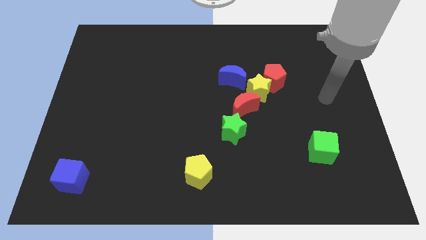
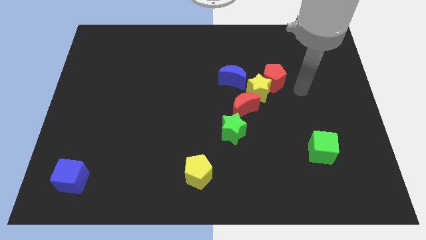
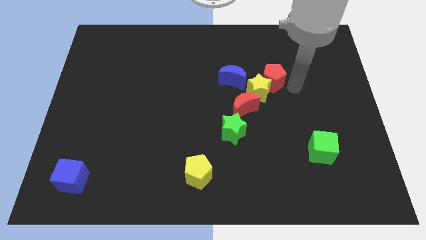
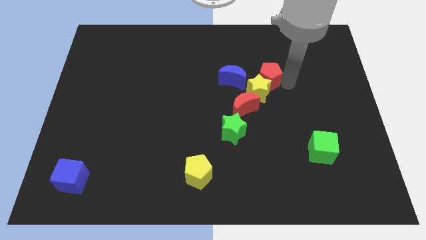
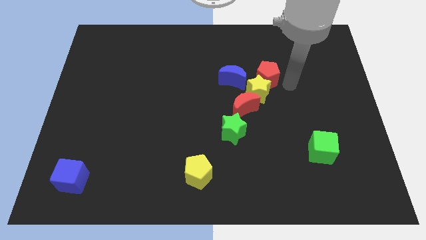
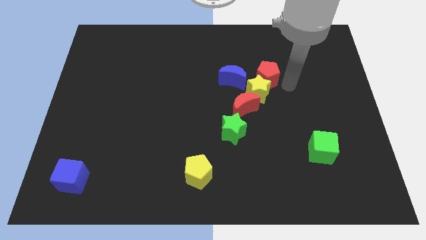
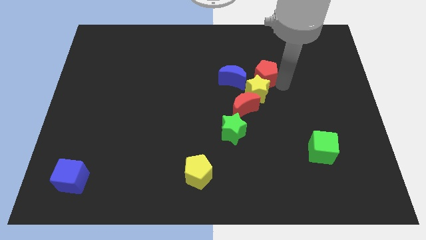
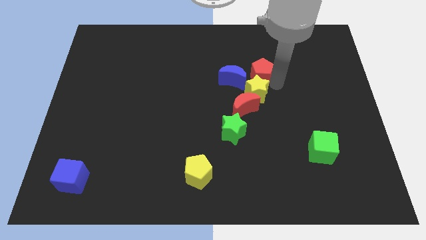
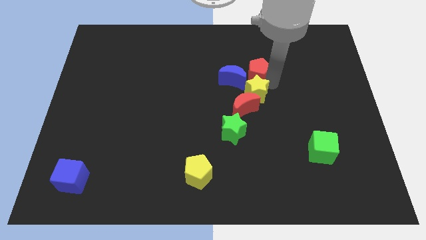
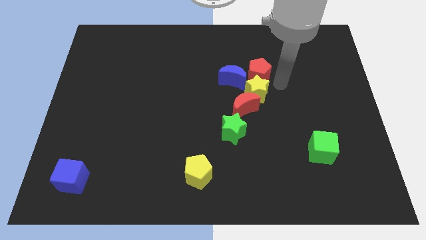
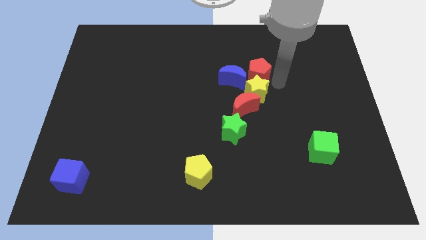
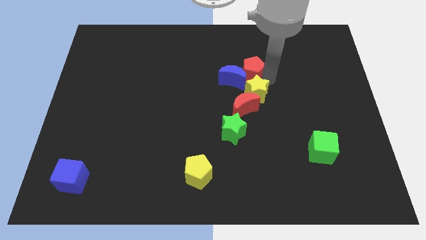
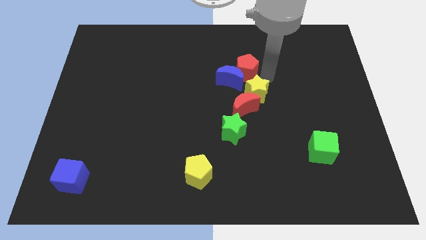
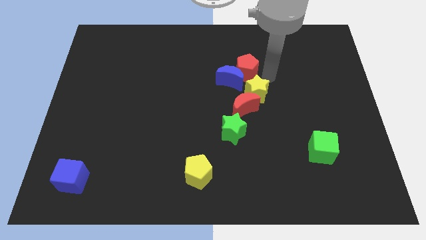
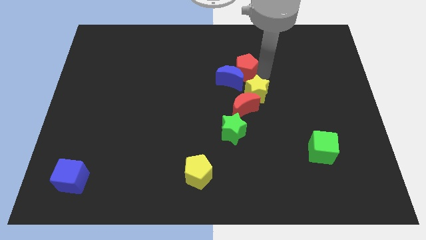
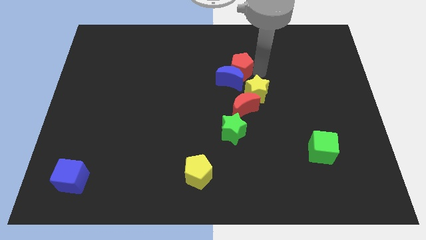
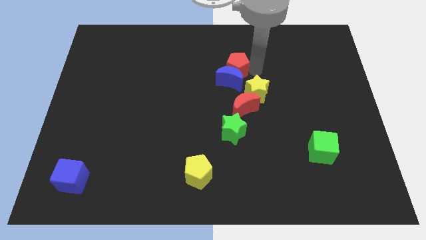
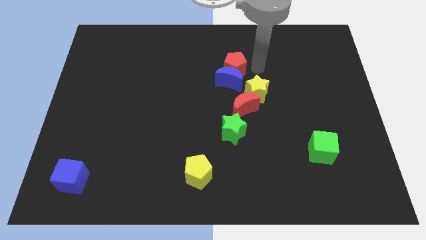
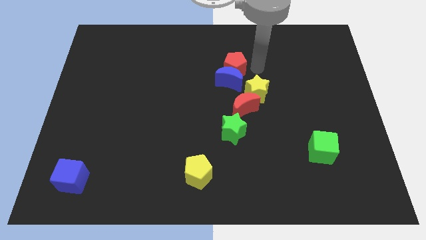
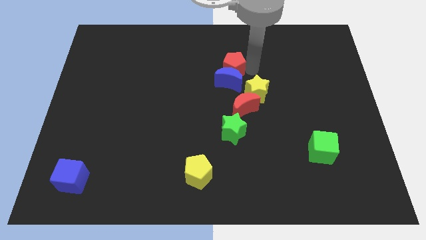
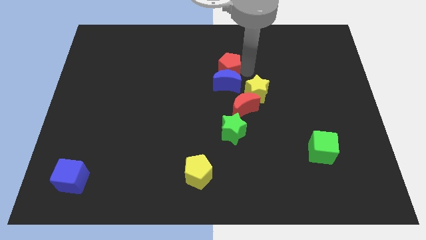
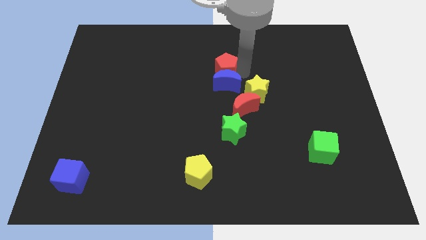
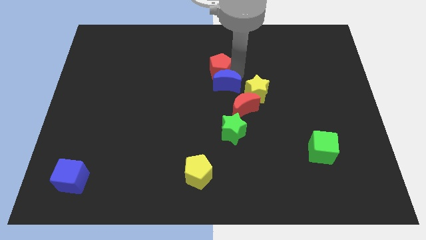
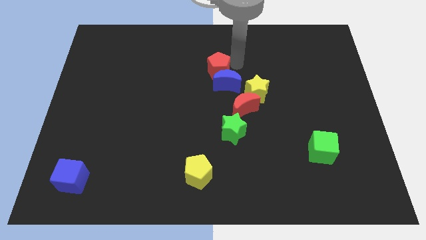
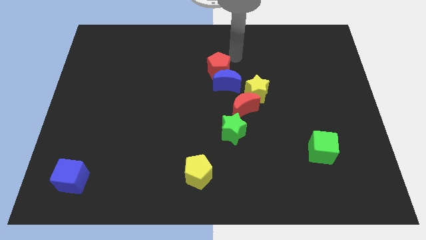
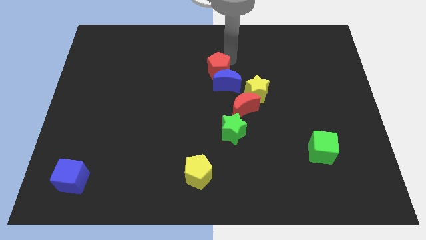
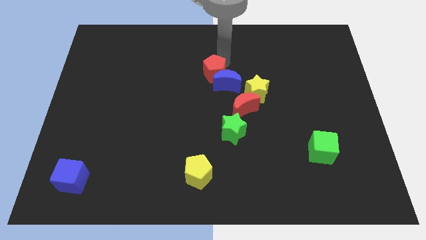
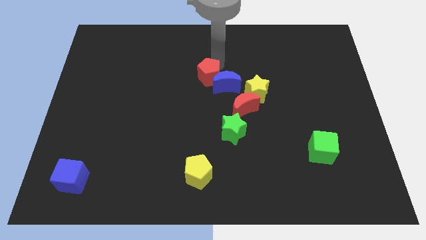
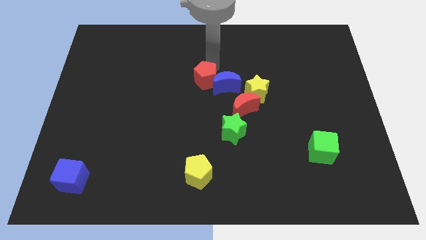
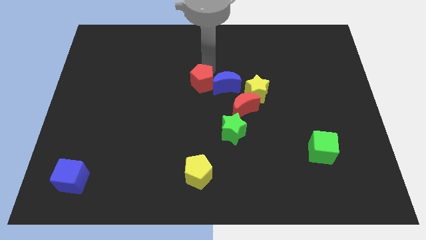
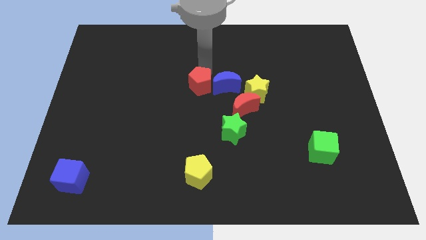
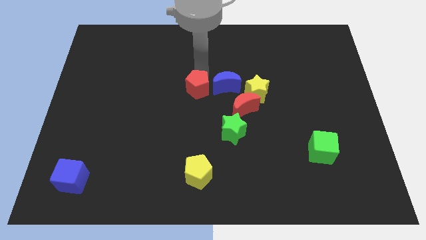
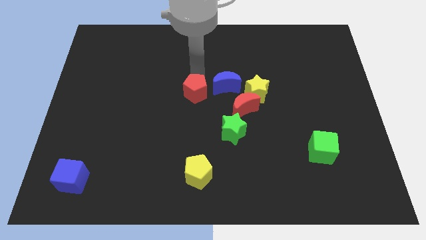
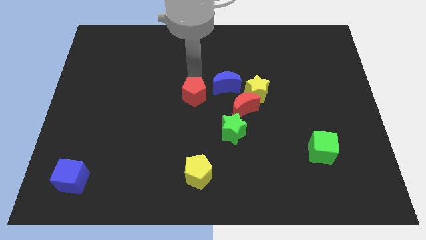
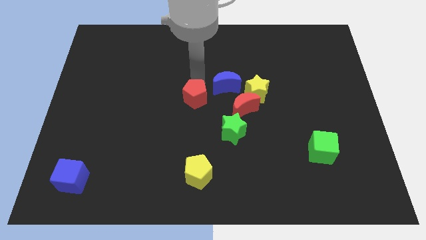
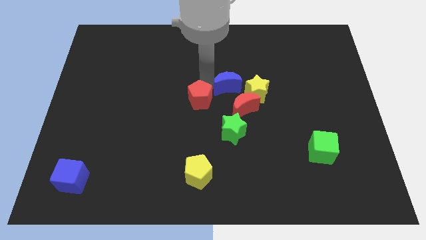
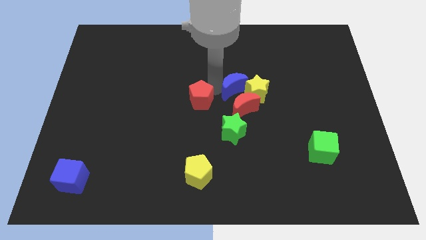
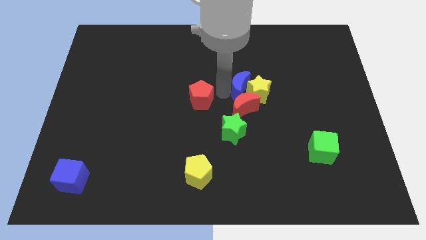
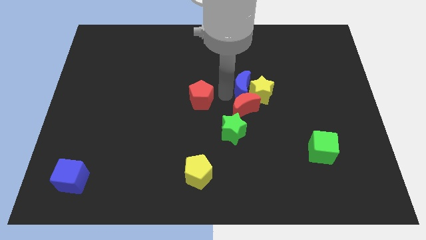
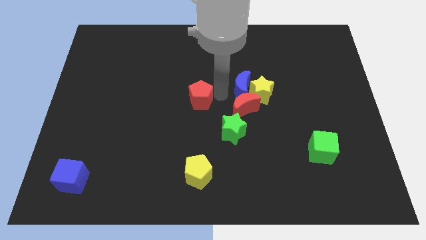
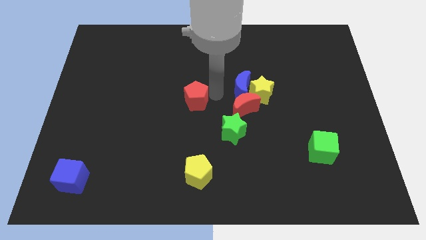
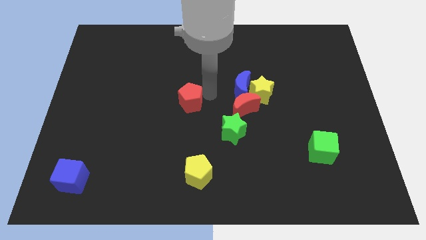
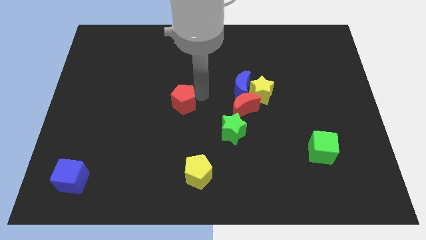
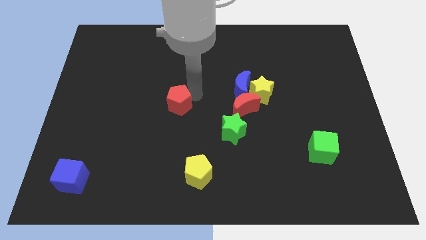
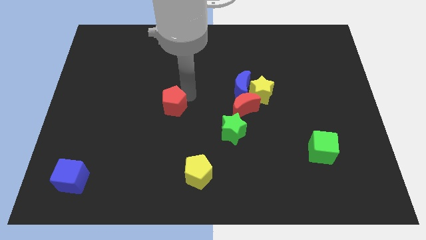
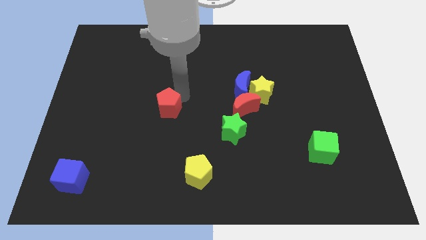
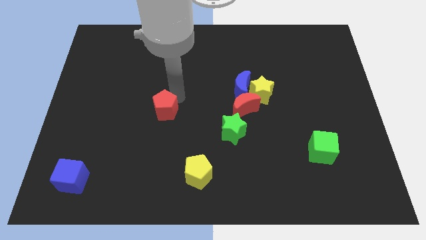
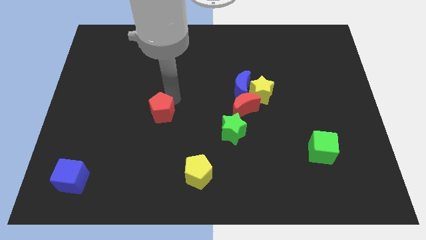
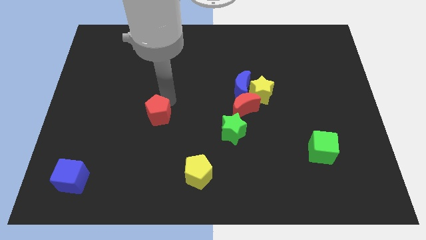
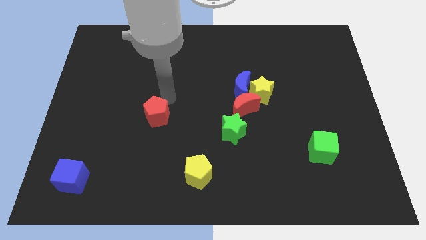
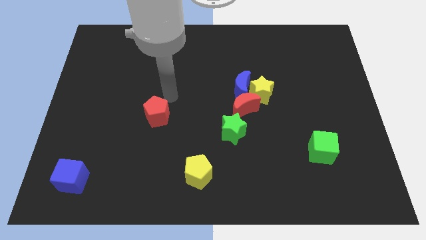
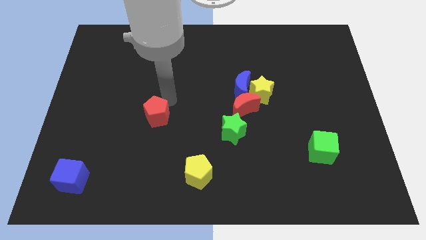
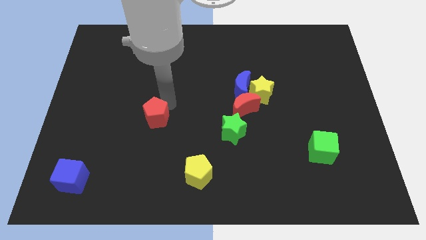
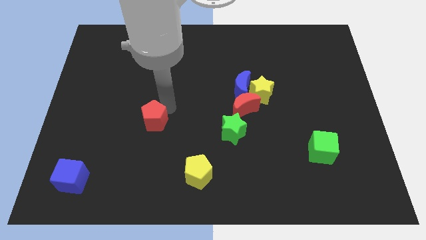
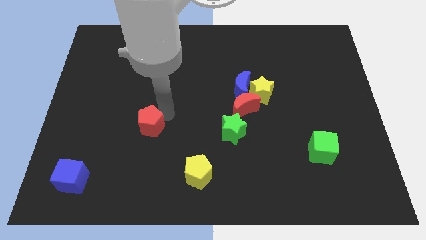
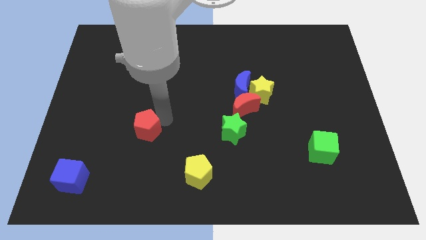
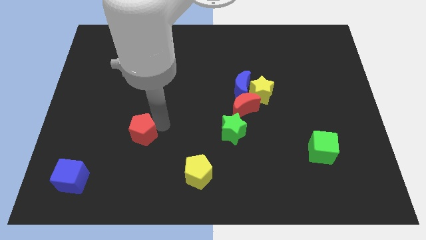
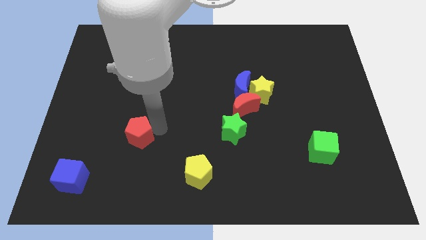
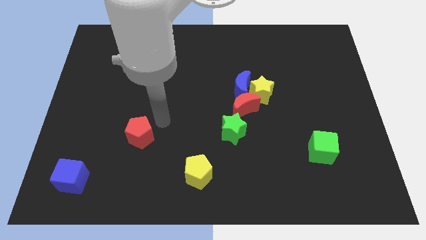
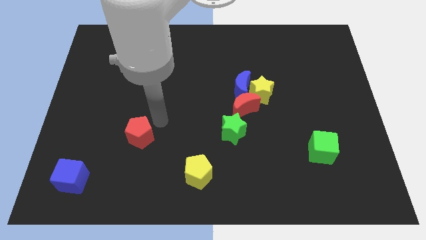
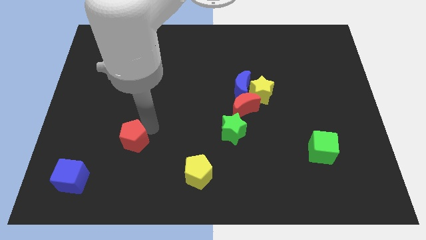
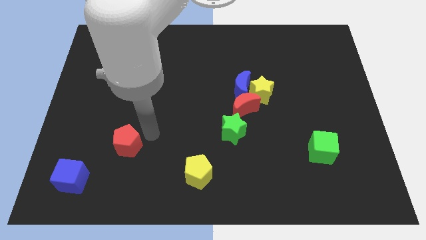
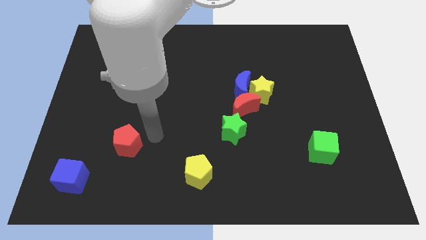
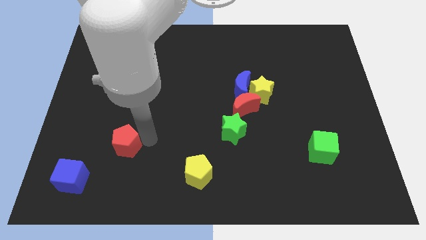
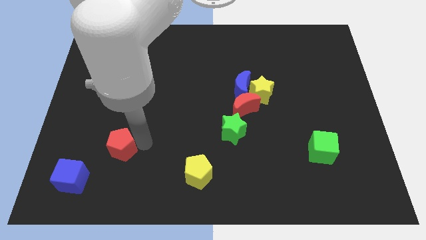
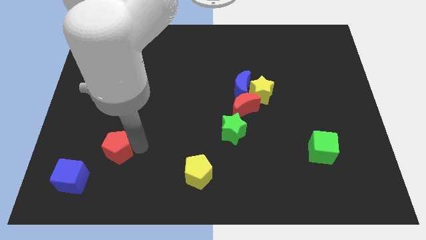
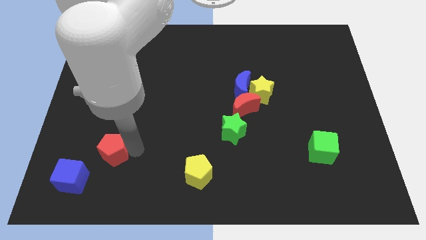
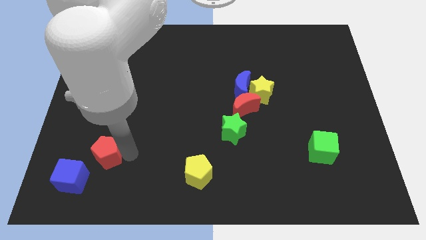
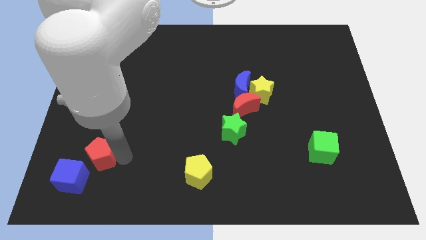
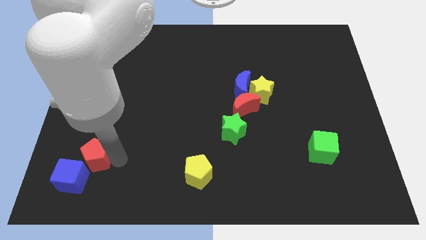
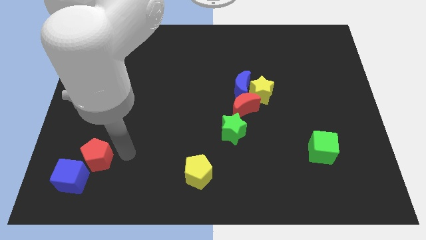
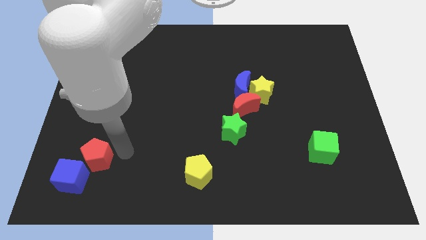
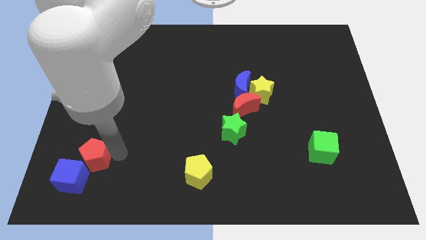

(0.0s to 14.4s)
slide the red pentagon towards the blue cube

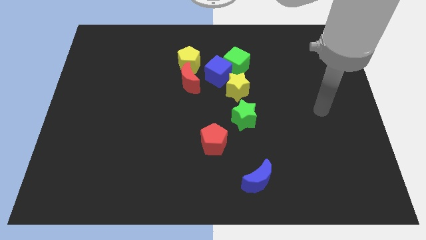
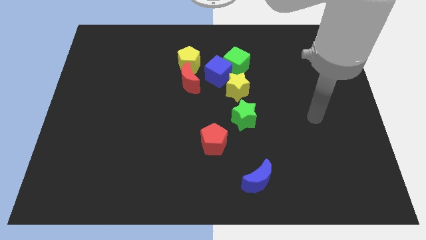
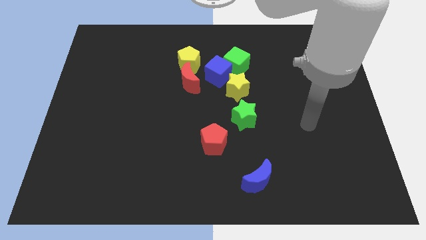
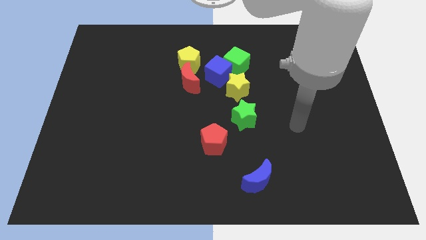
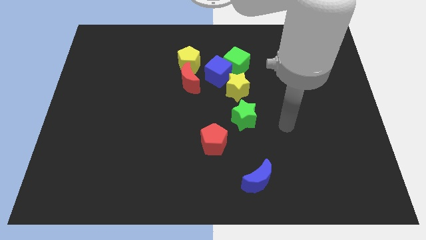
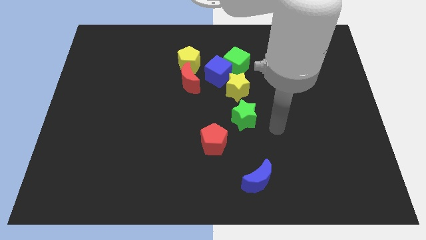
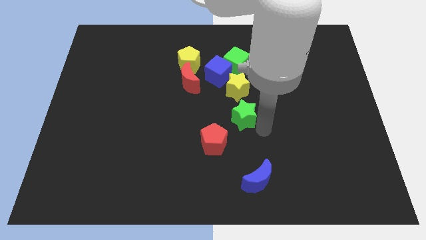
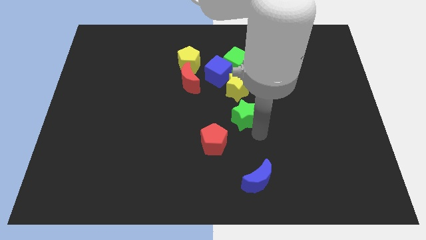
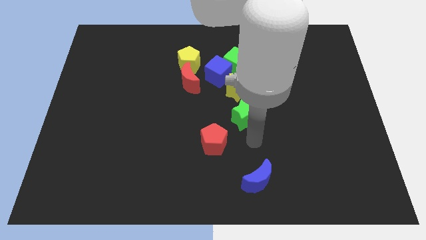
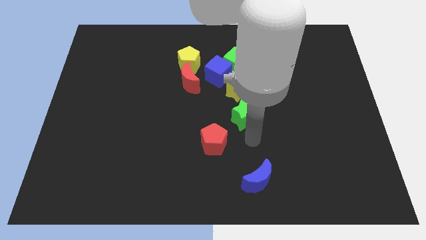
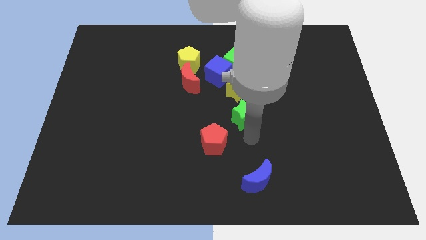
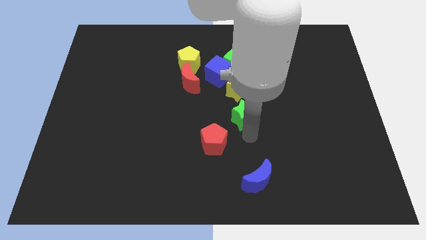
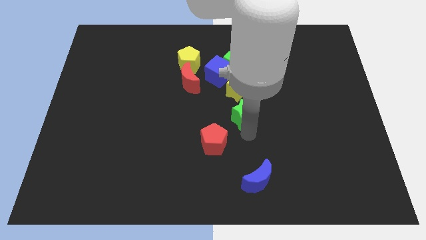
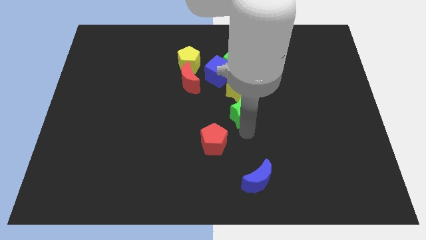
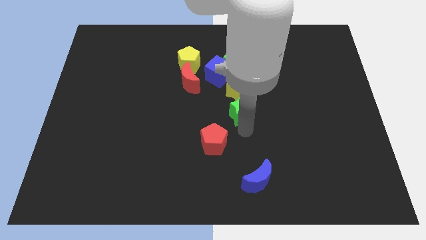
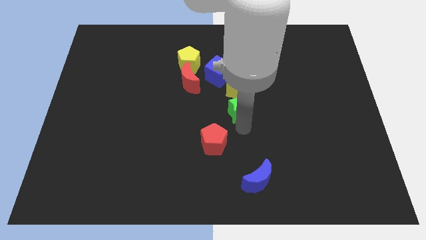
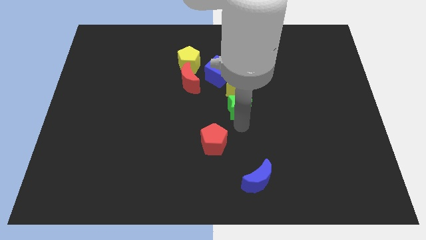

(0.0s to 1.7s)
push the green star to the yellow star
